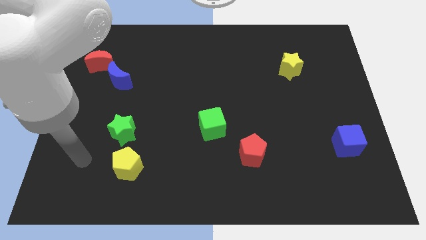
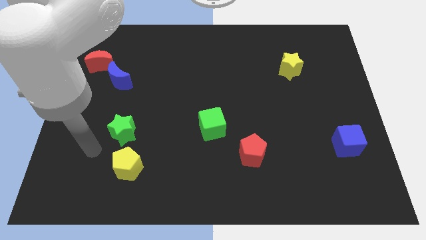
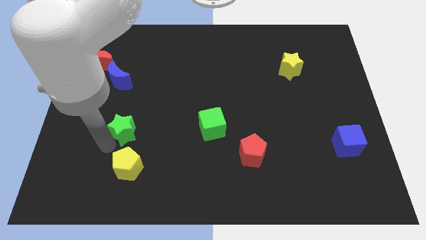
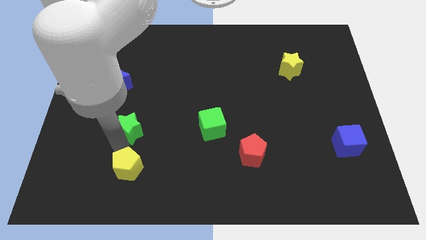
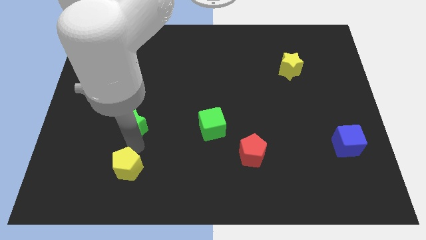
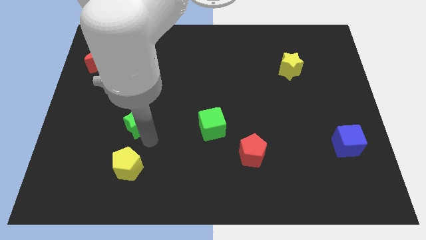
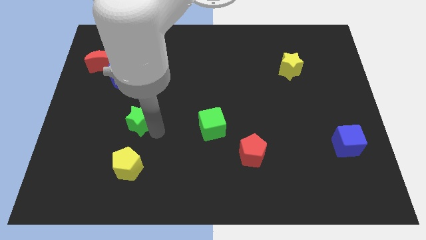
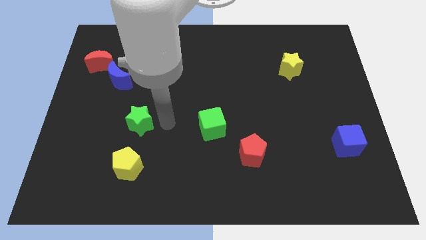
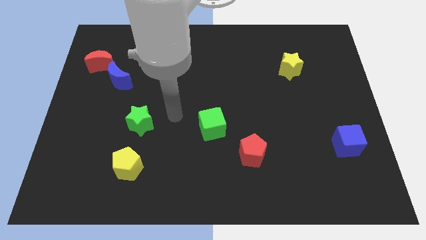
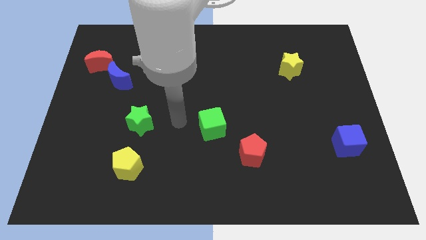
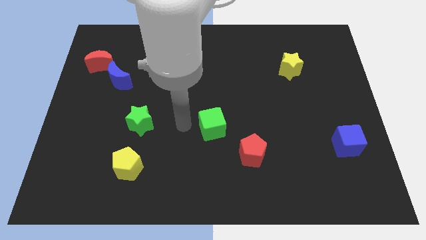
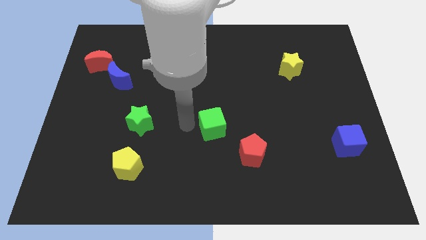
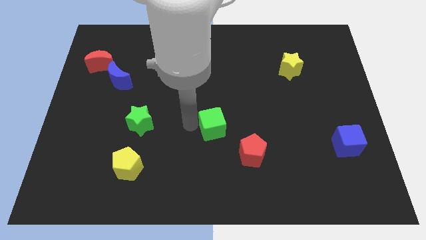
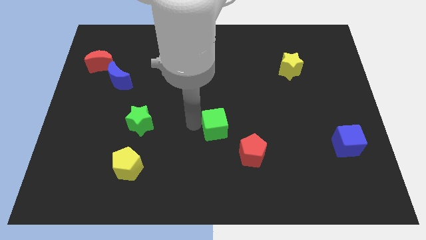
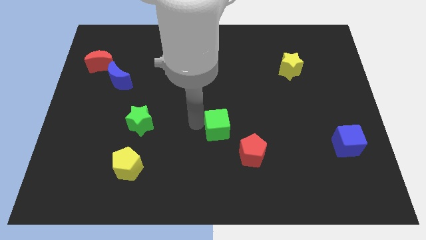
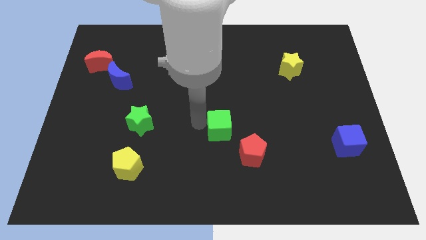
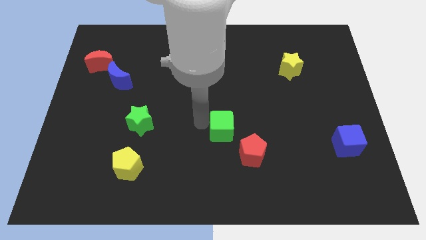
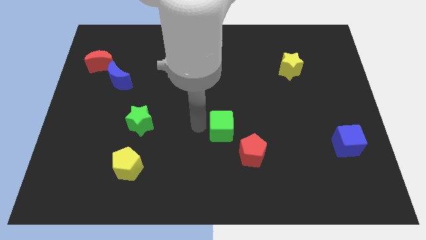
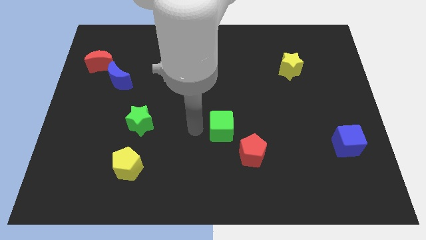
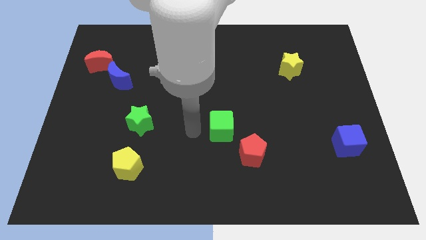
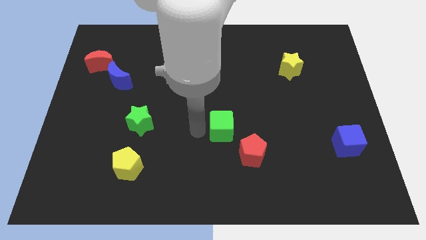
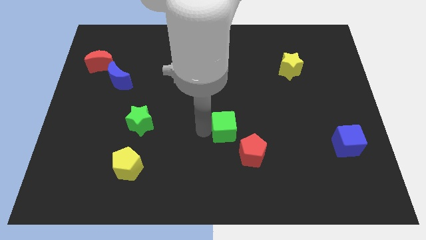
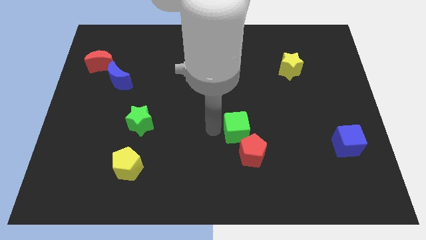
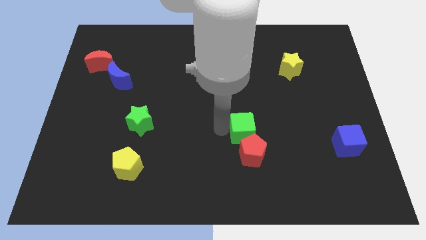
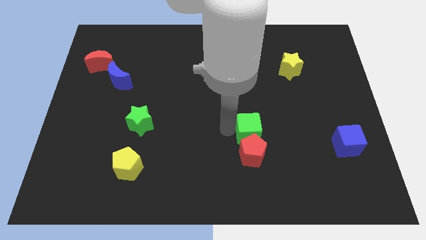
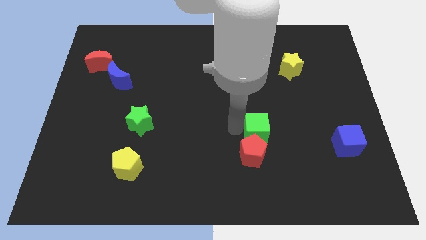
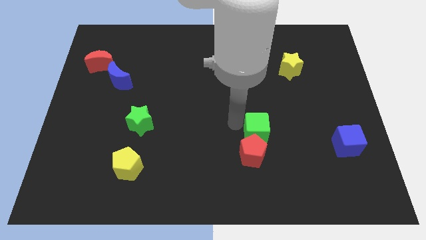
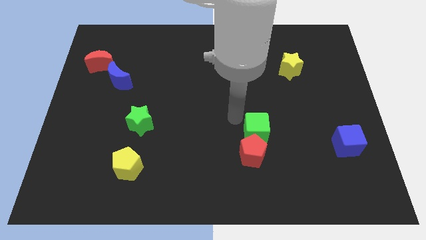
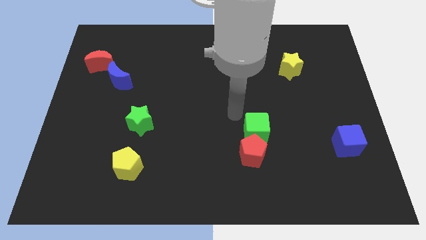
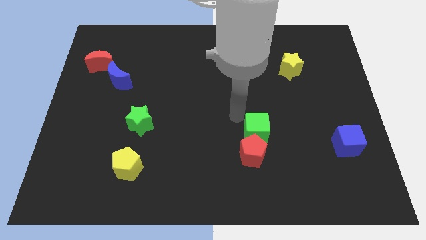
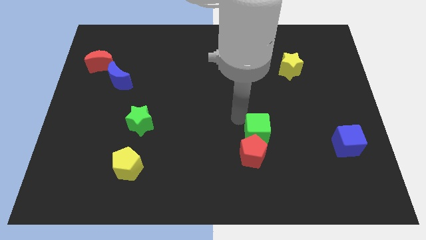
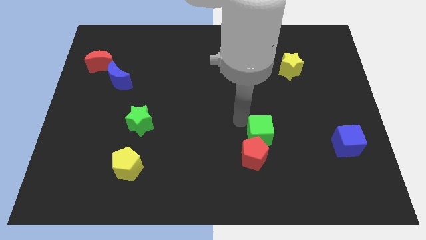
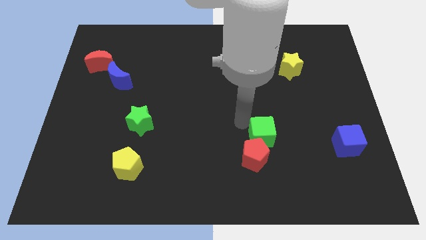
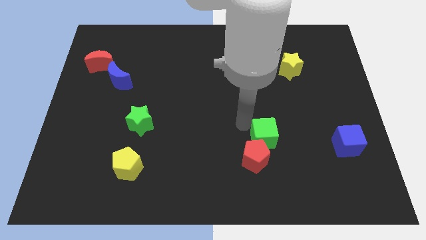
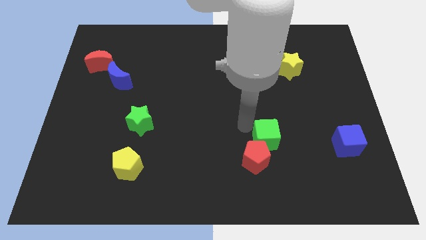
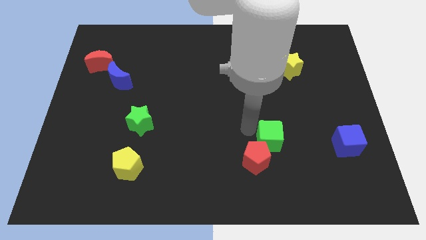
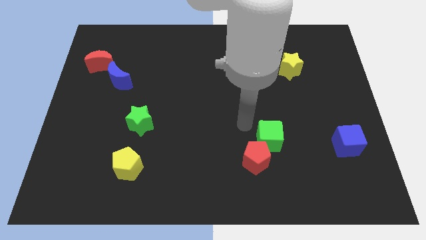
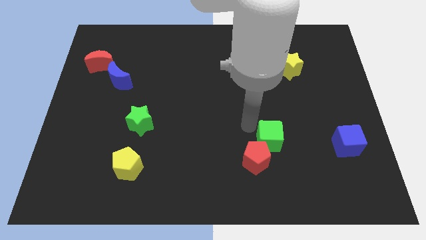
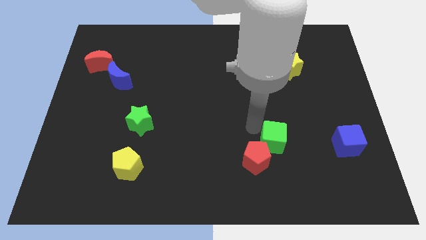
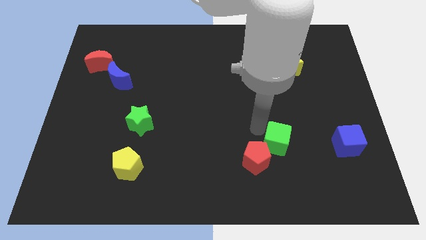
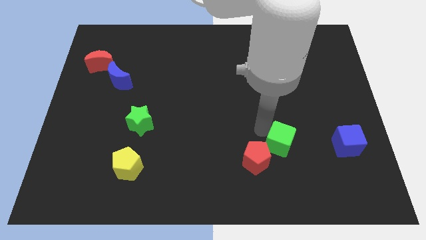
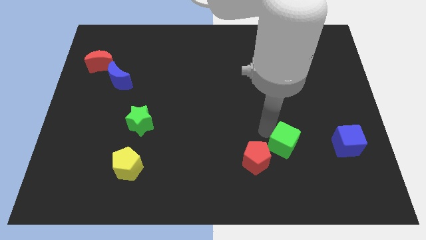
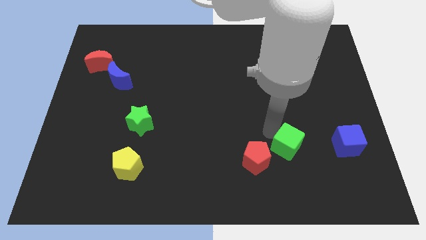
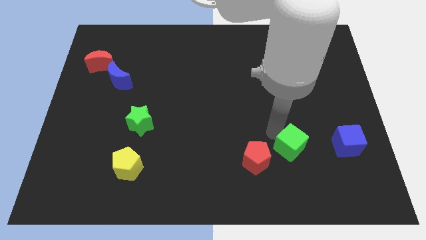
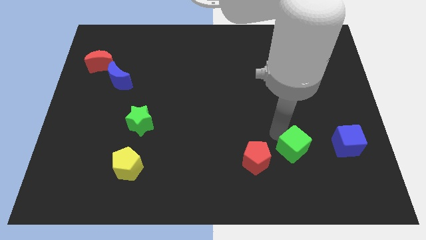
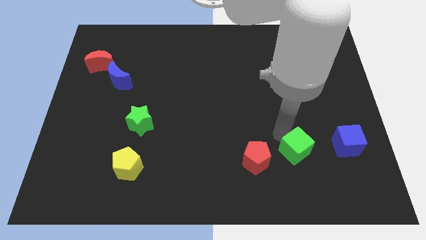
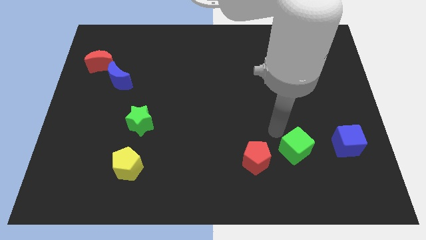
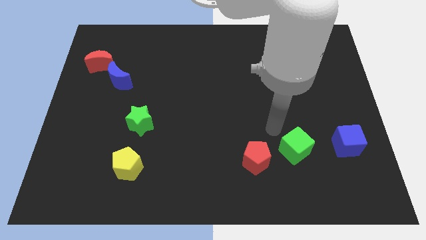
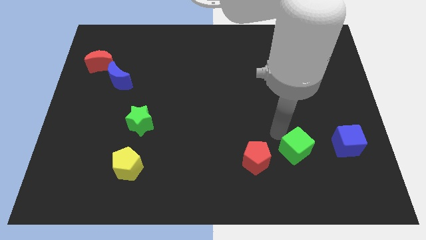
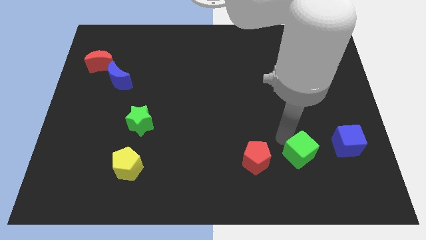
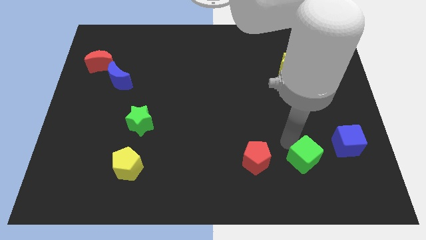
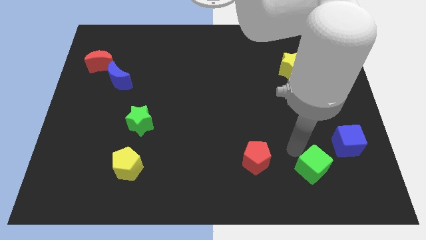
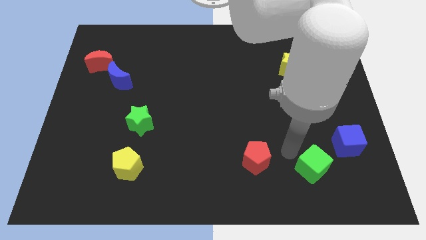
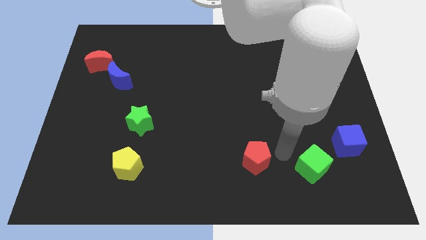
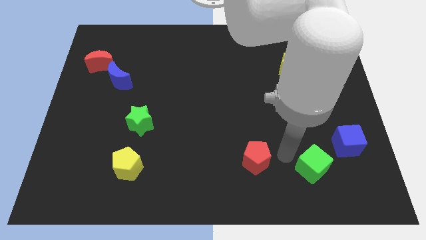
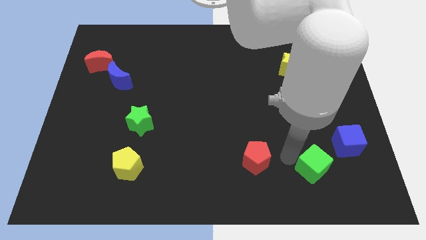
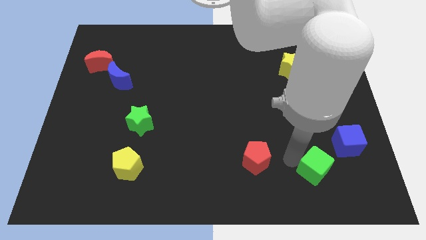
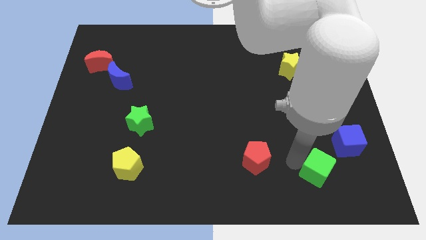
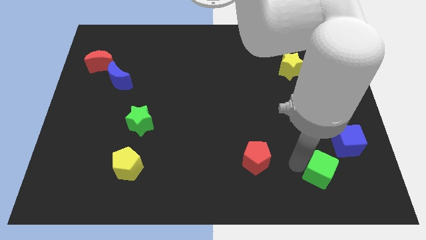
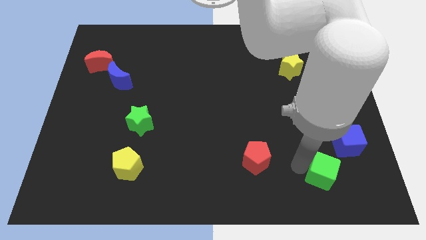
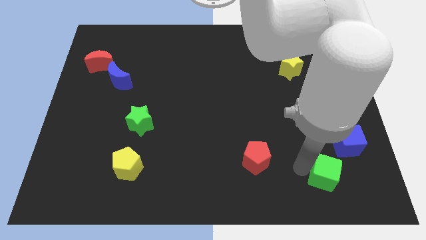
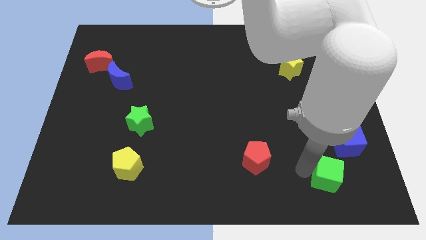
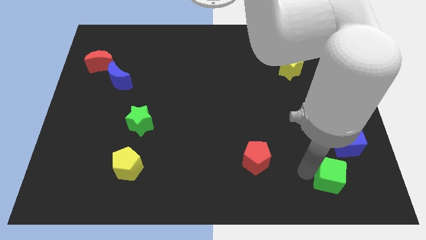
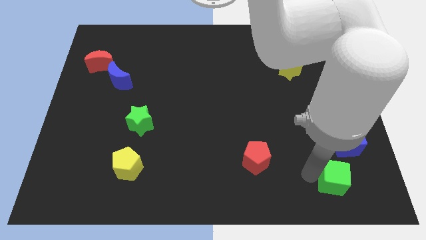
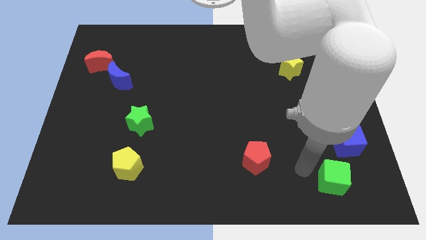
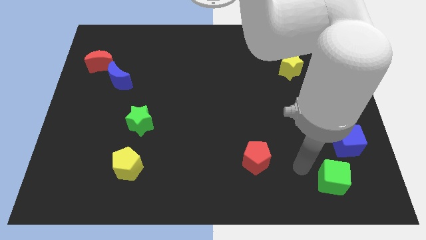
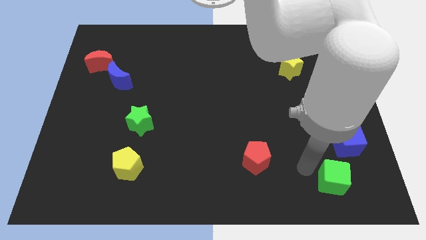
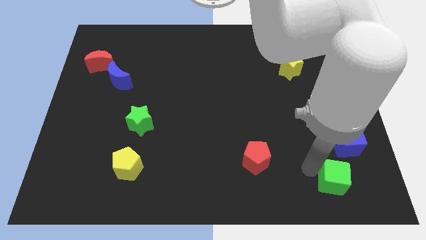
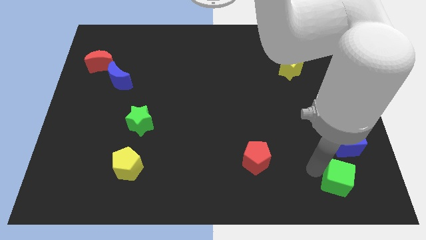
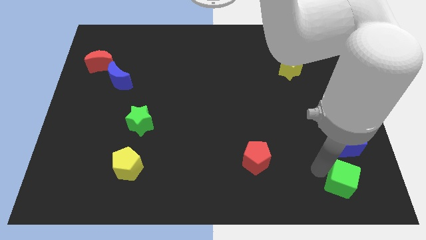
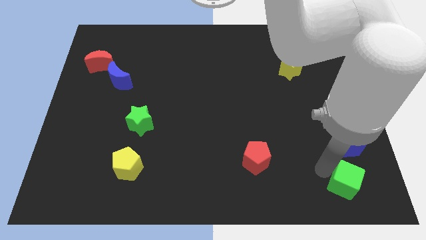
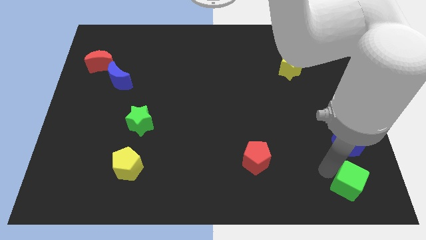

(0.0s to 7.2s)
push the green cube to the bottom right
